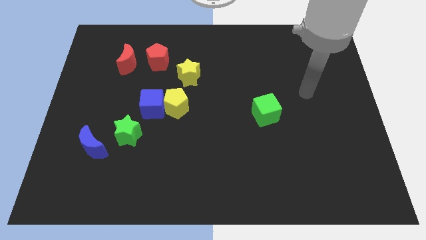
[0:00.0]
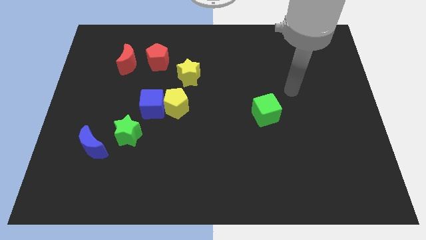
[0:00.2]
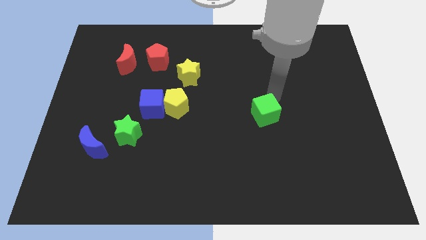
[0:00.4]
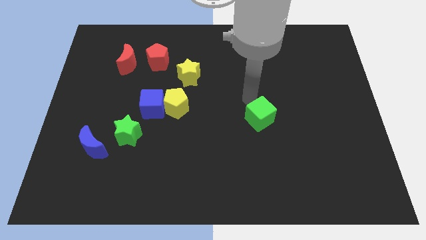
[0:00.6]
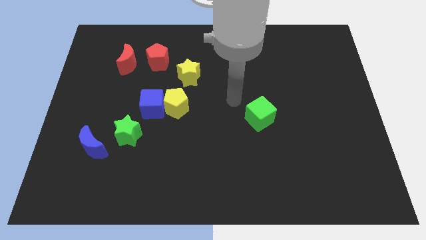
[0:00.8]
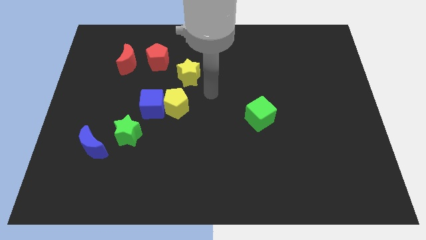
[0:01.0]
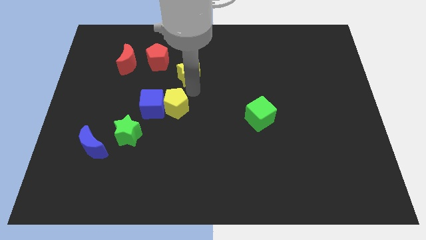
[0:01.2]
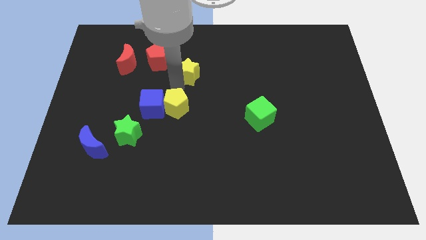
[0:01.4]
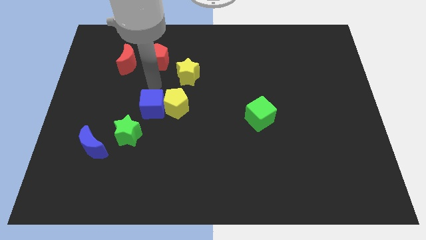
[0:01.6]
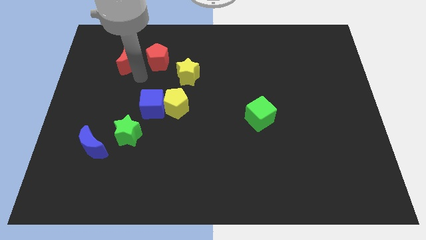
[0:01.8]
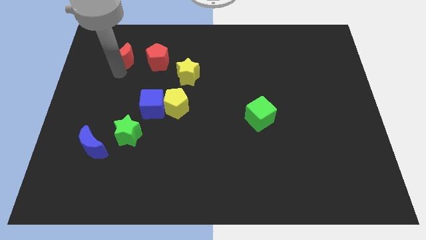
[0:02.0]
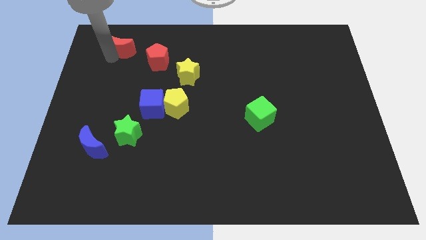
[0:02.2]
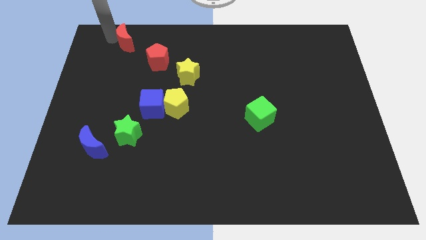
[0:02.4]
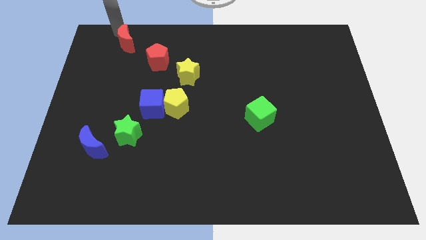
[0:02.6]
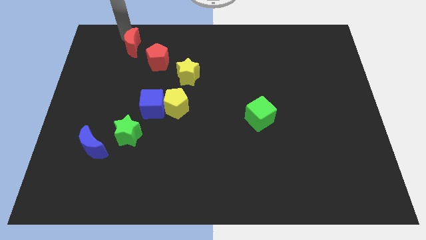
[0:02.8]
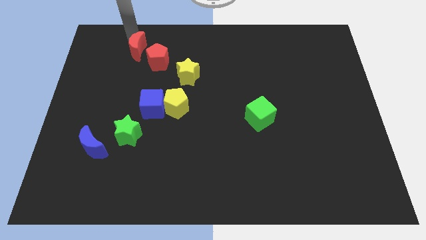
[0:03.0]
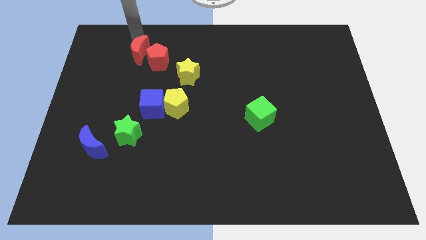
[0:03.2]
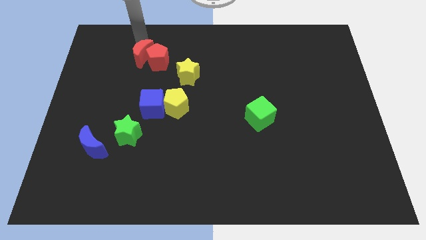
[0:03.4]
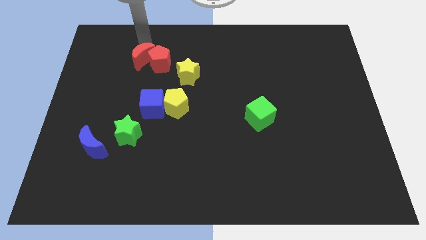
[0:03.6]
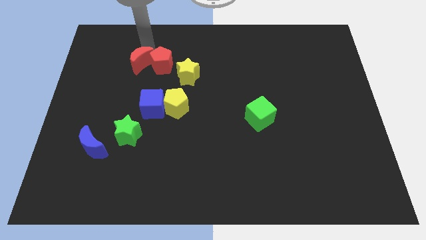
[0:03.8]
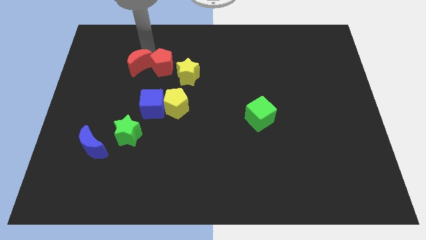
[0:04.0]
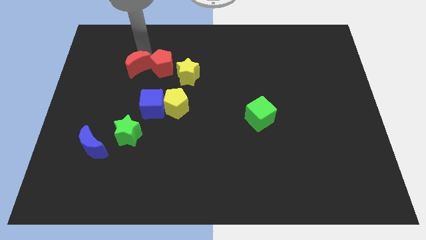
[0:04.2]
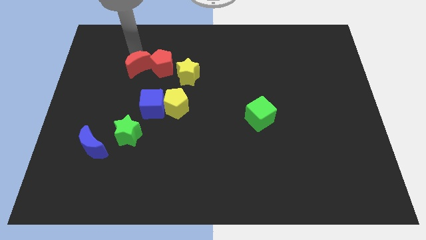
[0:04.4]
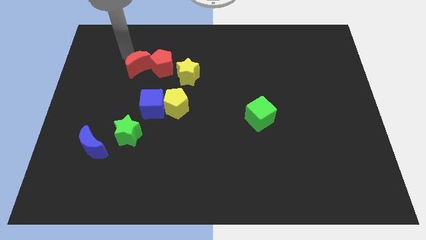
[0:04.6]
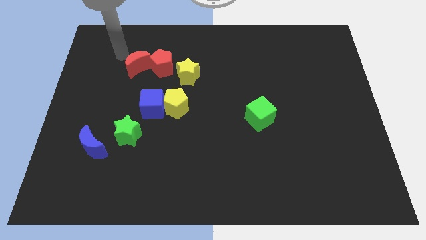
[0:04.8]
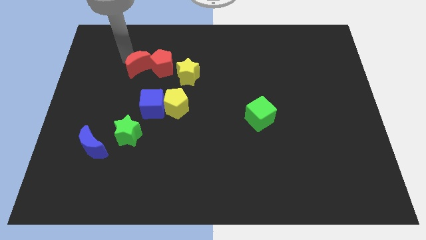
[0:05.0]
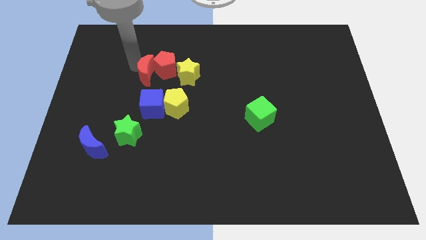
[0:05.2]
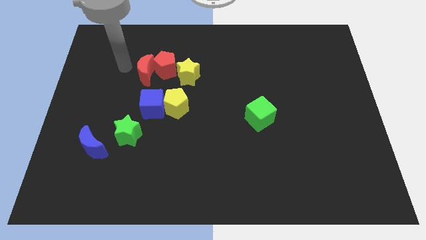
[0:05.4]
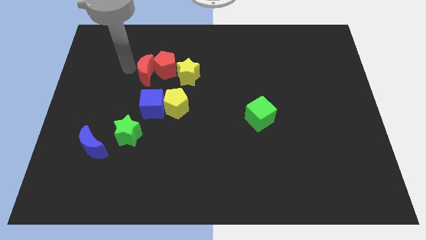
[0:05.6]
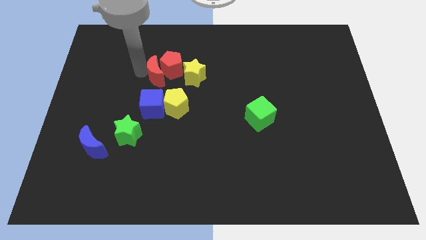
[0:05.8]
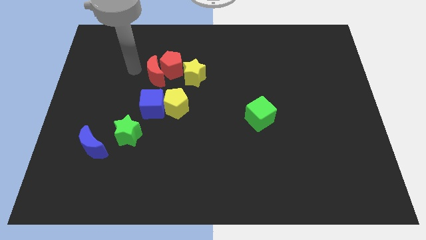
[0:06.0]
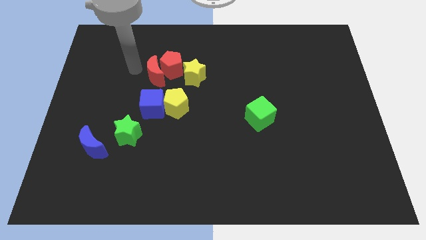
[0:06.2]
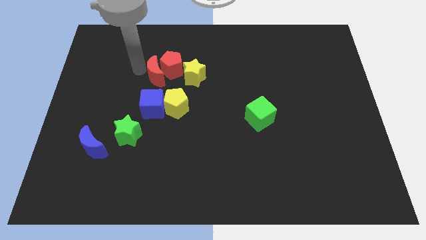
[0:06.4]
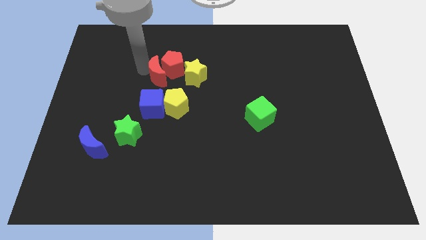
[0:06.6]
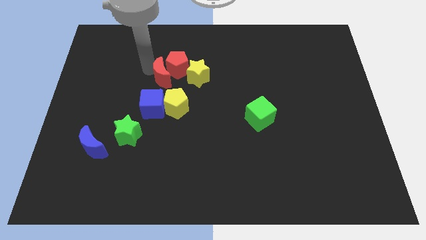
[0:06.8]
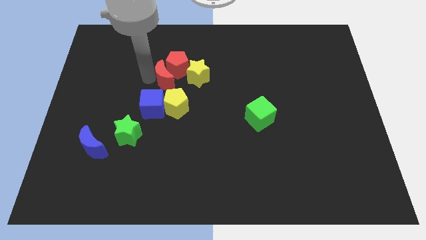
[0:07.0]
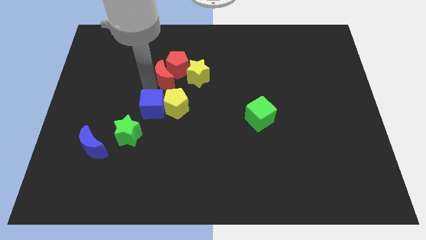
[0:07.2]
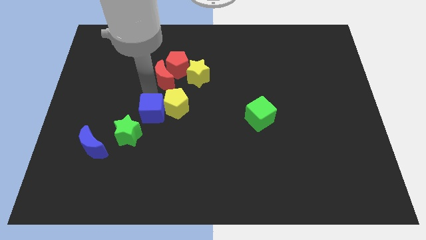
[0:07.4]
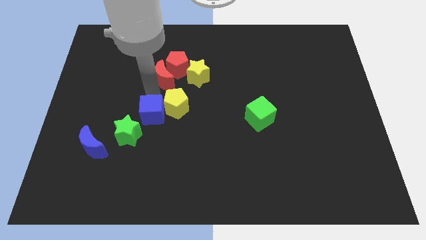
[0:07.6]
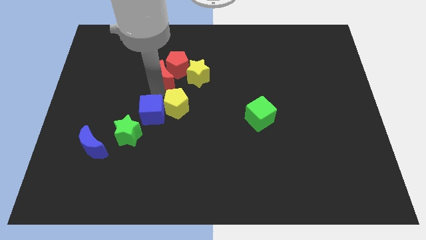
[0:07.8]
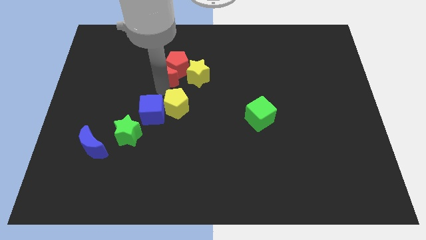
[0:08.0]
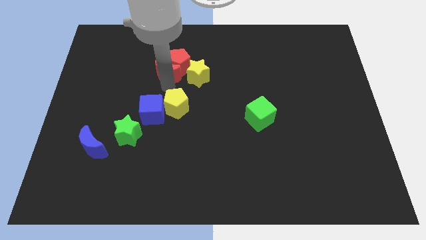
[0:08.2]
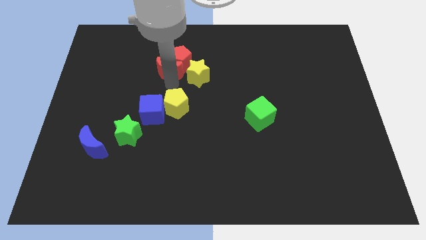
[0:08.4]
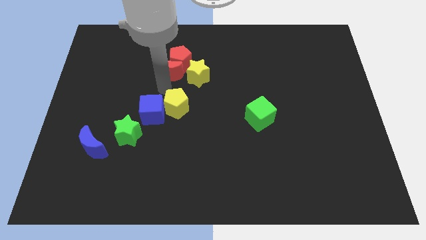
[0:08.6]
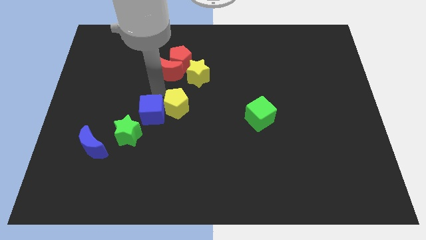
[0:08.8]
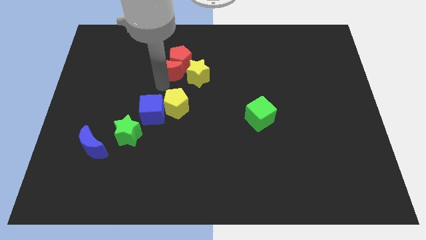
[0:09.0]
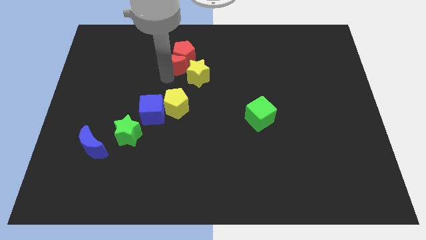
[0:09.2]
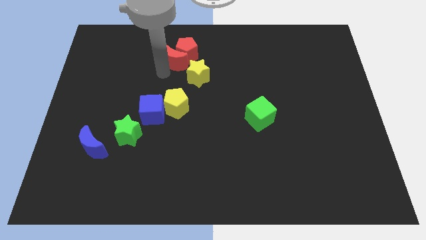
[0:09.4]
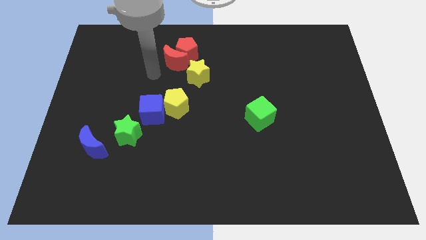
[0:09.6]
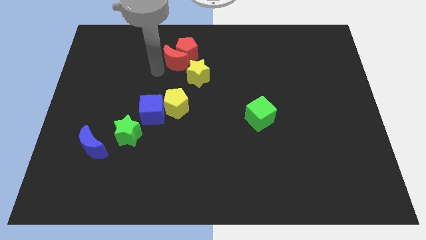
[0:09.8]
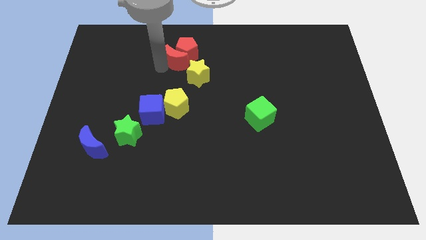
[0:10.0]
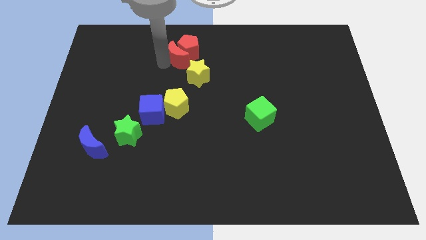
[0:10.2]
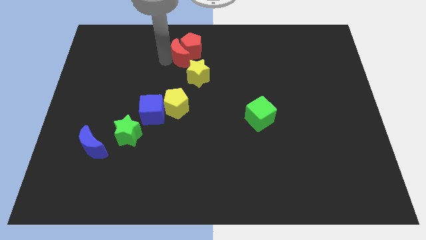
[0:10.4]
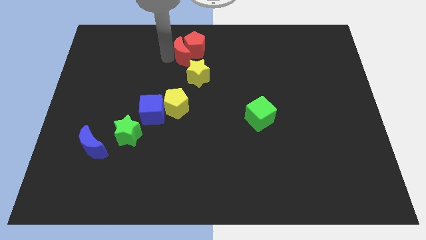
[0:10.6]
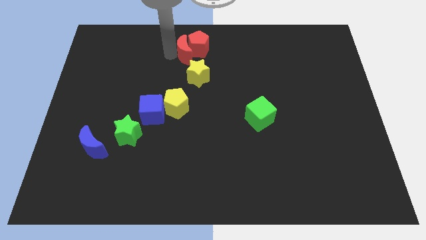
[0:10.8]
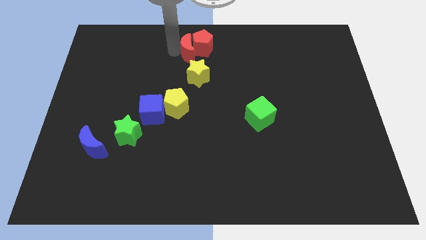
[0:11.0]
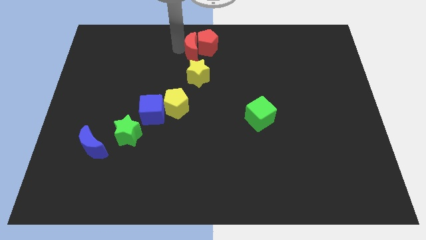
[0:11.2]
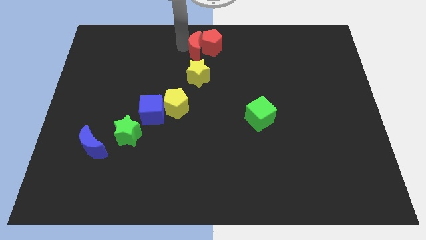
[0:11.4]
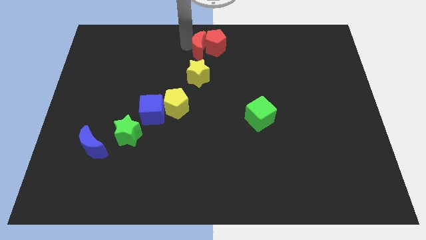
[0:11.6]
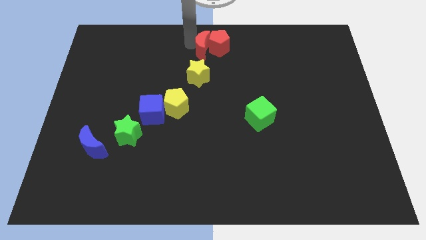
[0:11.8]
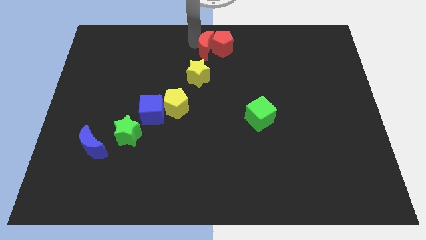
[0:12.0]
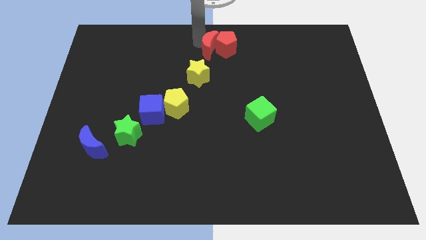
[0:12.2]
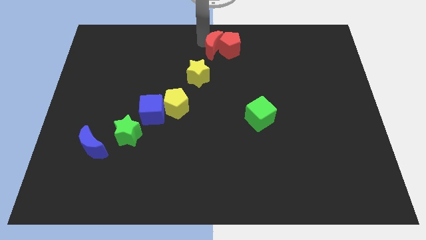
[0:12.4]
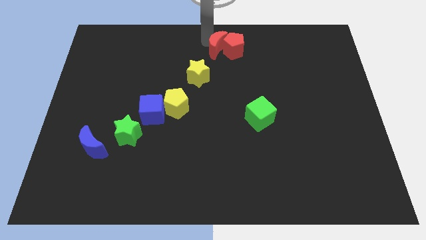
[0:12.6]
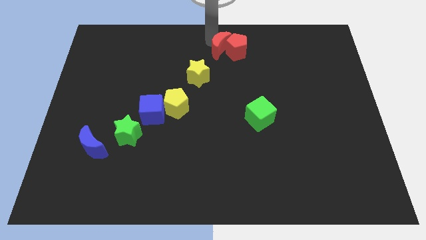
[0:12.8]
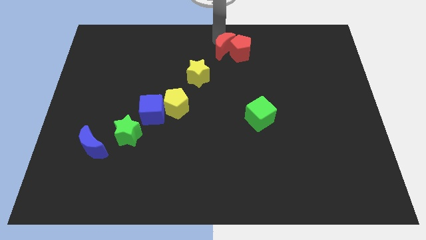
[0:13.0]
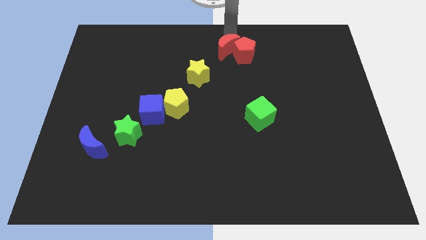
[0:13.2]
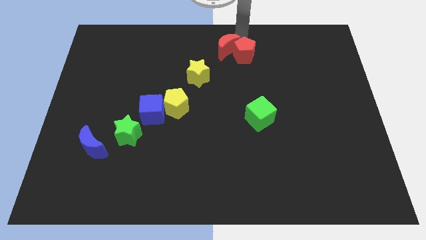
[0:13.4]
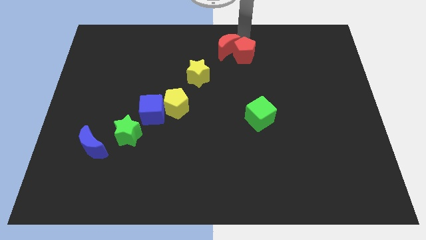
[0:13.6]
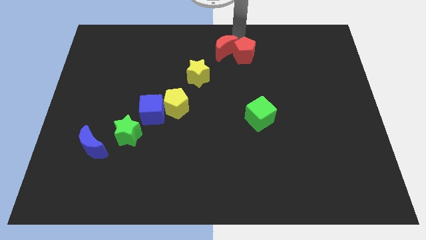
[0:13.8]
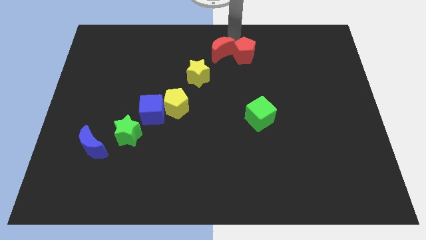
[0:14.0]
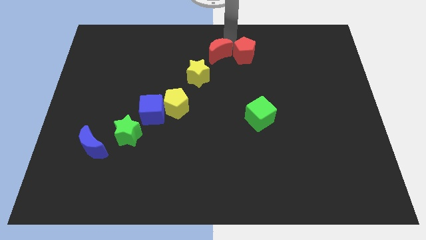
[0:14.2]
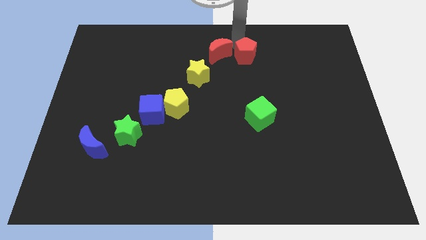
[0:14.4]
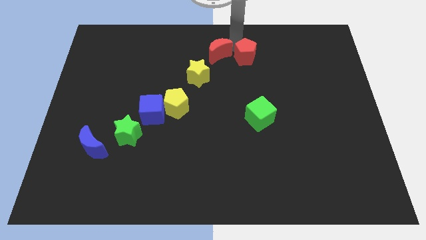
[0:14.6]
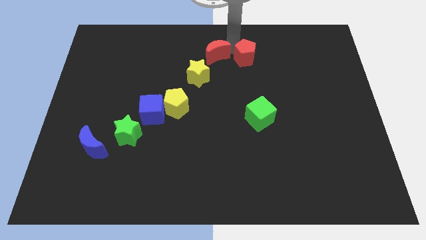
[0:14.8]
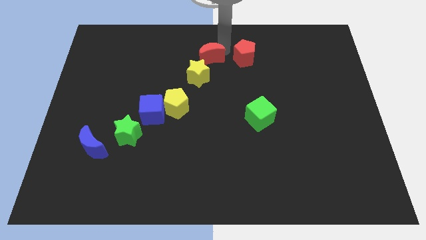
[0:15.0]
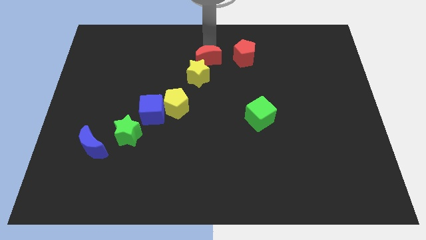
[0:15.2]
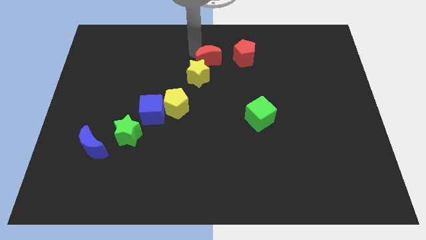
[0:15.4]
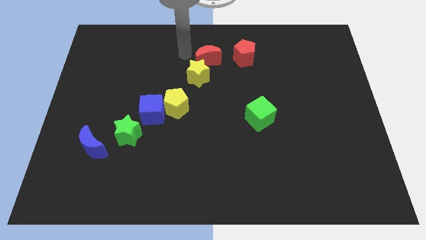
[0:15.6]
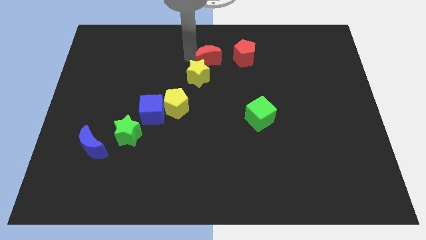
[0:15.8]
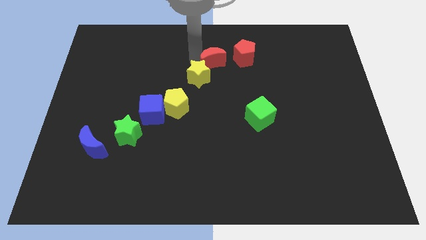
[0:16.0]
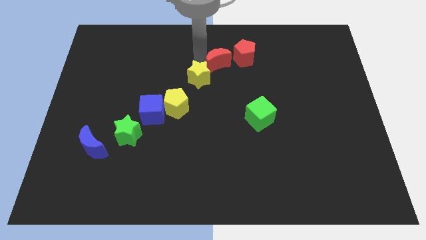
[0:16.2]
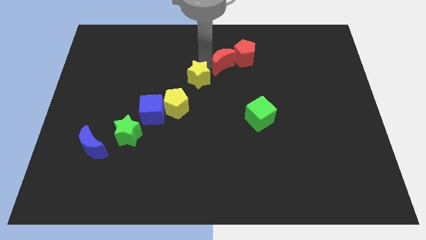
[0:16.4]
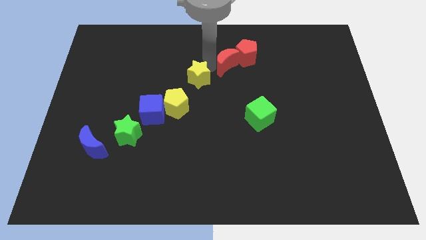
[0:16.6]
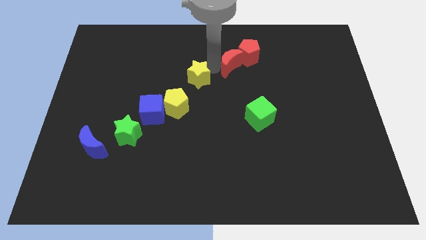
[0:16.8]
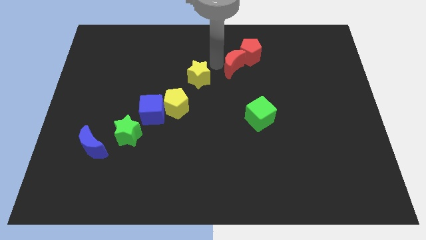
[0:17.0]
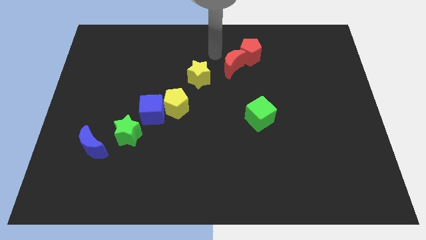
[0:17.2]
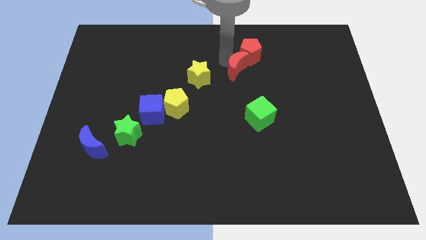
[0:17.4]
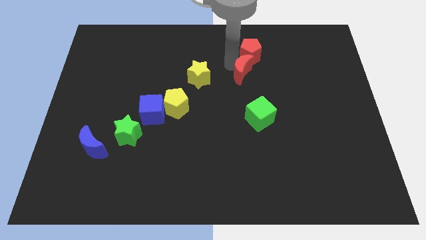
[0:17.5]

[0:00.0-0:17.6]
slide the red moon to the top of the green cube
